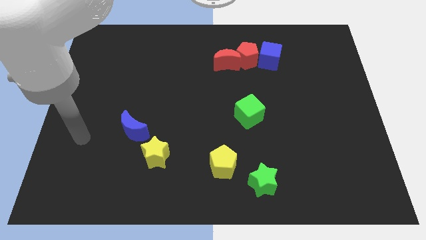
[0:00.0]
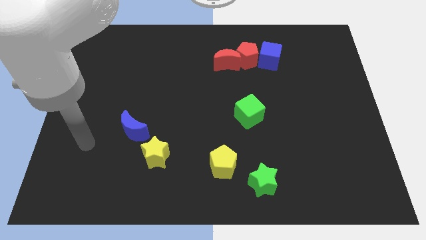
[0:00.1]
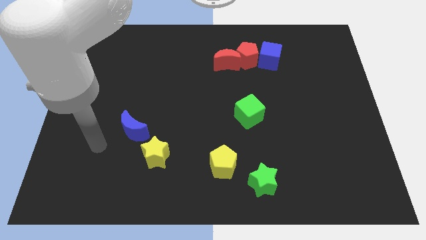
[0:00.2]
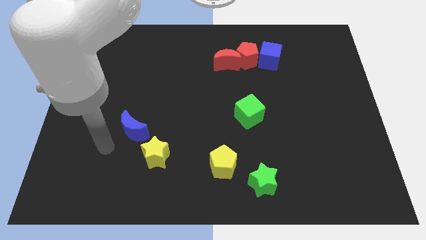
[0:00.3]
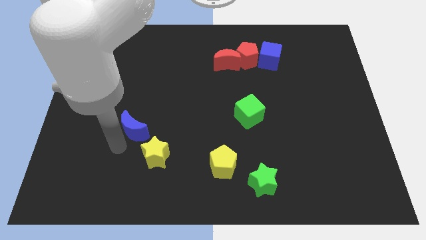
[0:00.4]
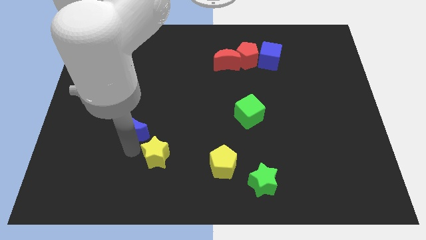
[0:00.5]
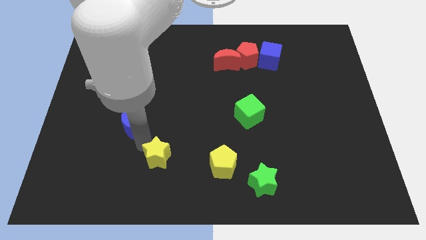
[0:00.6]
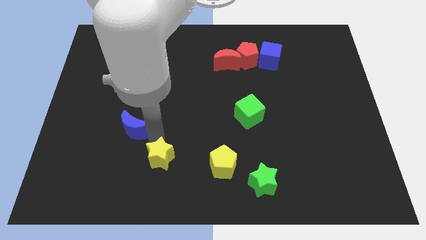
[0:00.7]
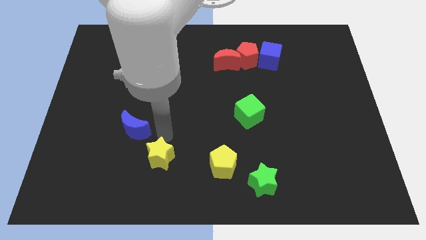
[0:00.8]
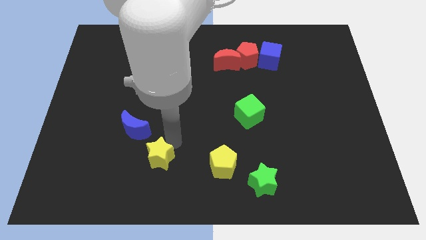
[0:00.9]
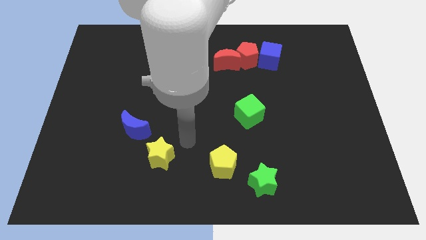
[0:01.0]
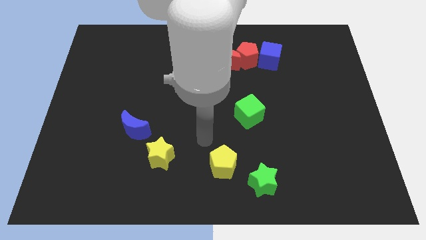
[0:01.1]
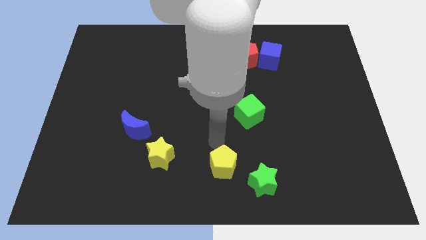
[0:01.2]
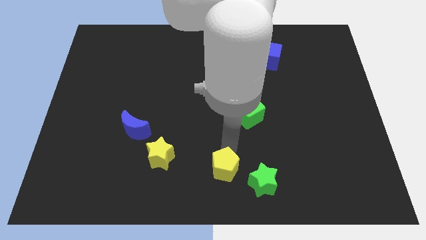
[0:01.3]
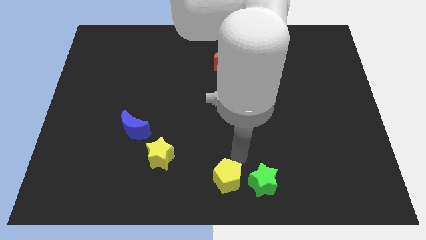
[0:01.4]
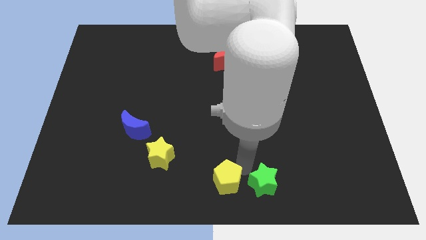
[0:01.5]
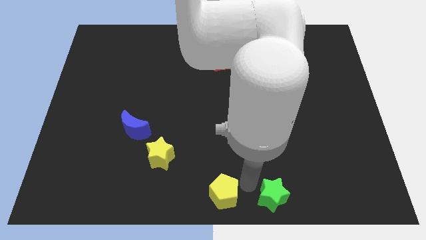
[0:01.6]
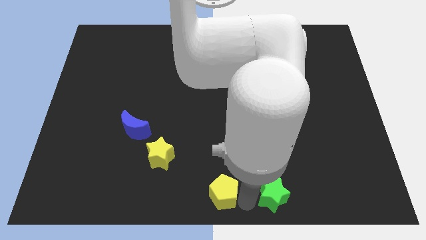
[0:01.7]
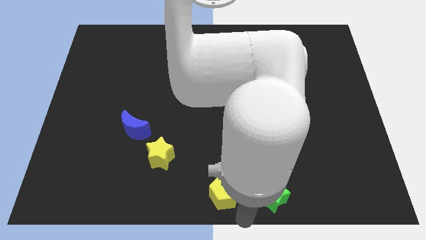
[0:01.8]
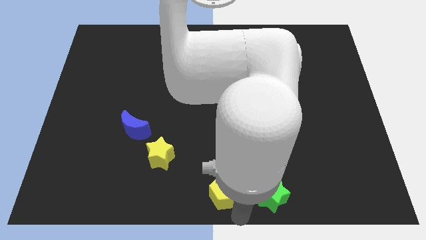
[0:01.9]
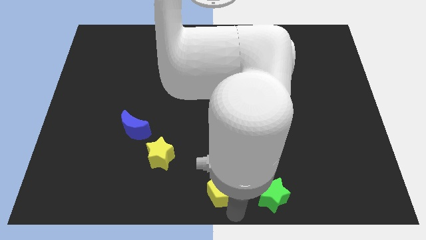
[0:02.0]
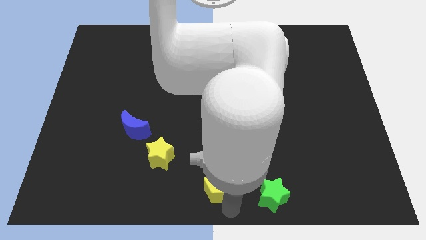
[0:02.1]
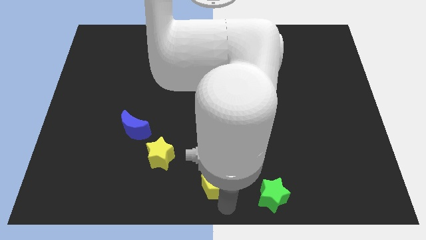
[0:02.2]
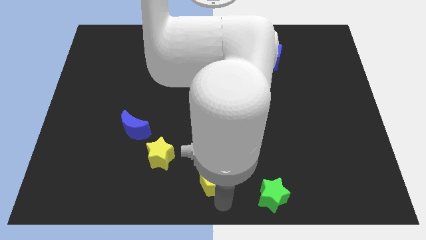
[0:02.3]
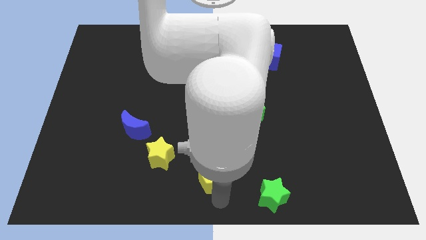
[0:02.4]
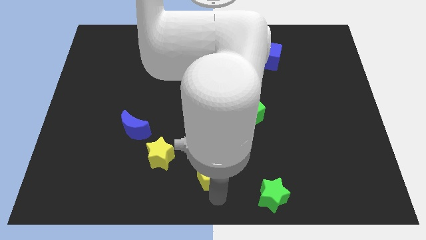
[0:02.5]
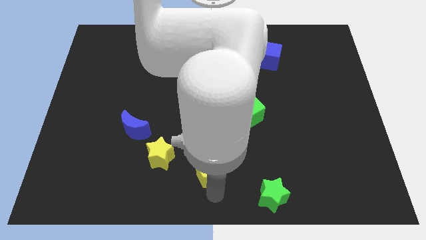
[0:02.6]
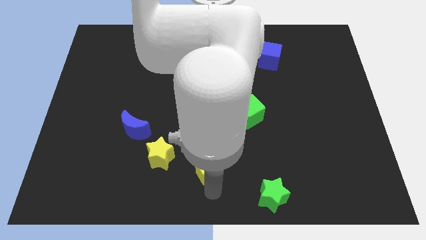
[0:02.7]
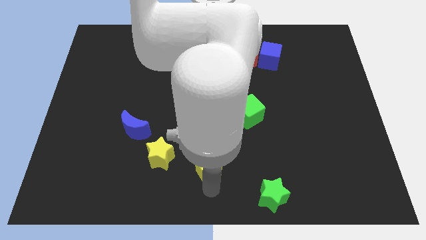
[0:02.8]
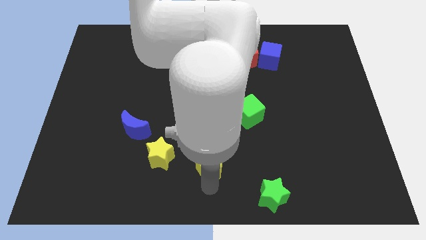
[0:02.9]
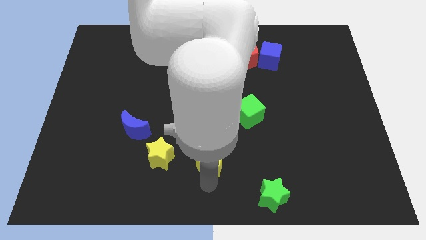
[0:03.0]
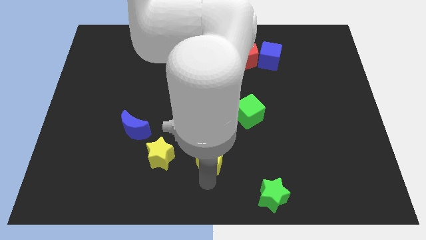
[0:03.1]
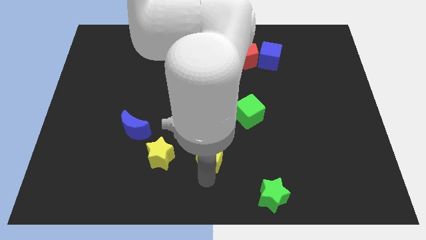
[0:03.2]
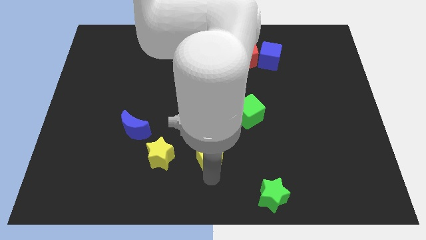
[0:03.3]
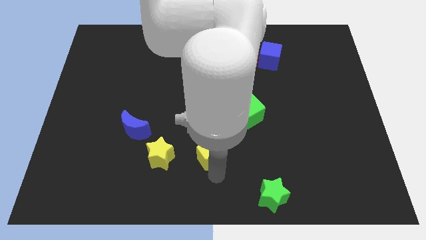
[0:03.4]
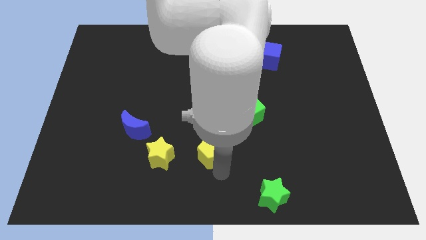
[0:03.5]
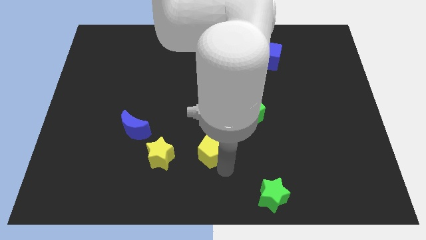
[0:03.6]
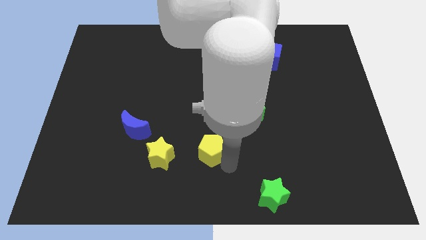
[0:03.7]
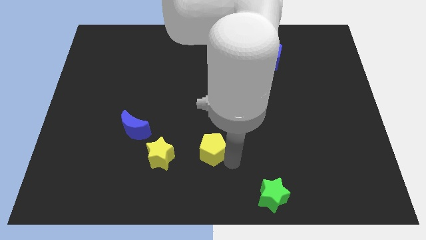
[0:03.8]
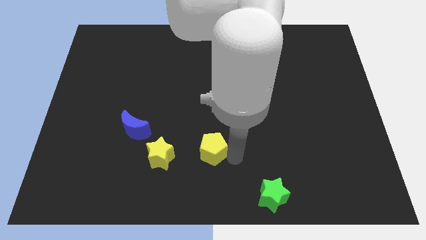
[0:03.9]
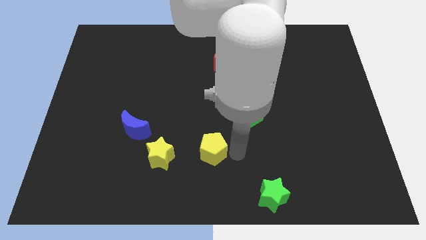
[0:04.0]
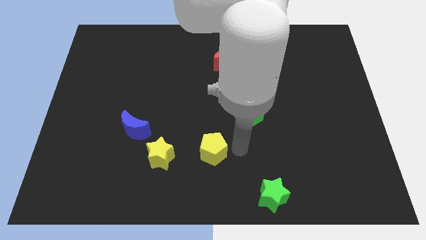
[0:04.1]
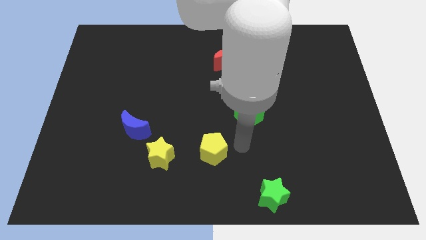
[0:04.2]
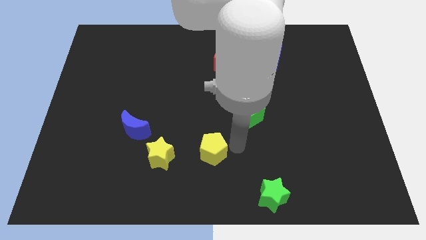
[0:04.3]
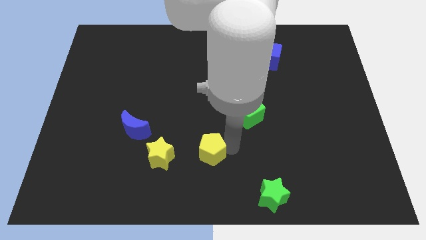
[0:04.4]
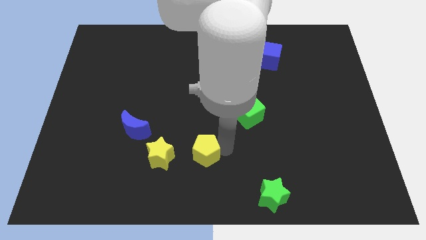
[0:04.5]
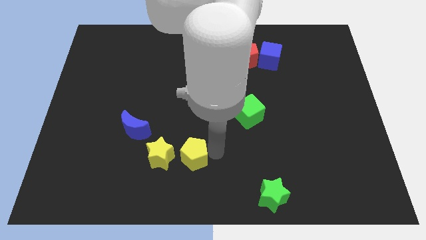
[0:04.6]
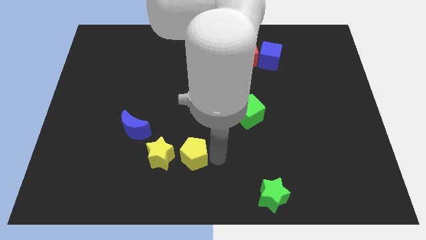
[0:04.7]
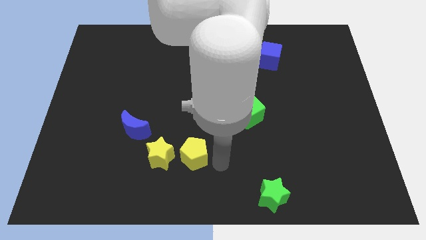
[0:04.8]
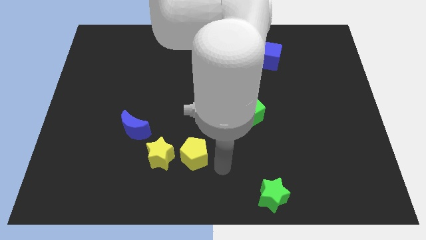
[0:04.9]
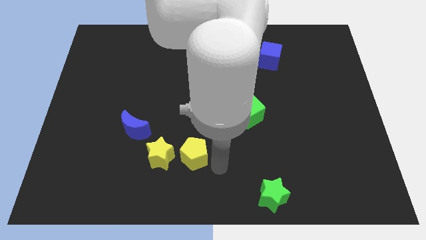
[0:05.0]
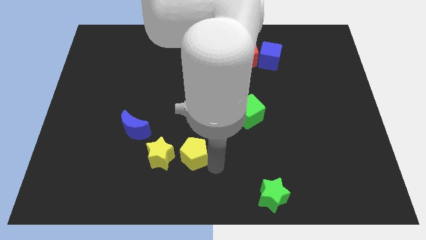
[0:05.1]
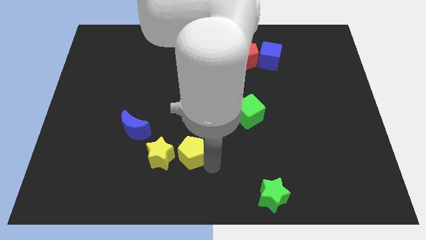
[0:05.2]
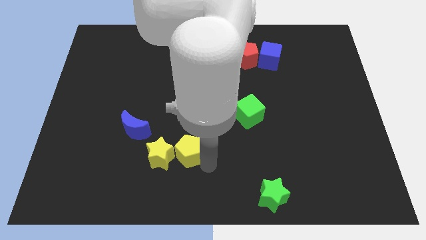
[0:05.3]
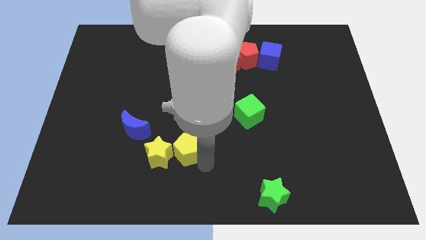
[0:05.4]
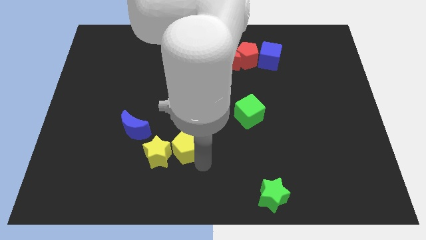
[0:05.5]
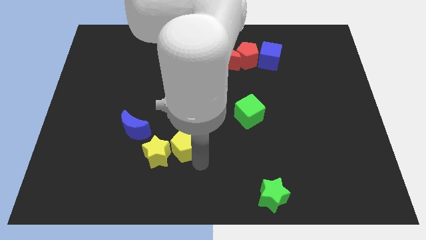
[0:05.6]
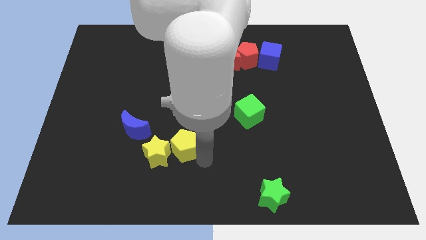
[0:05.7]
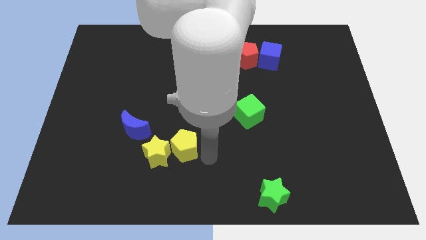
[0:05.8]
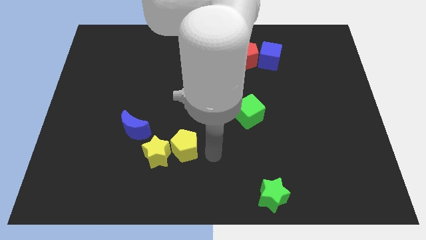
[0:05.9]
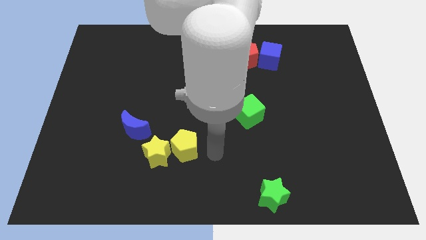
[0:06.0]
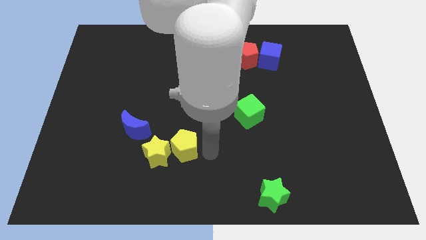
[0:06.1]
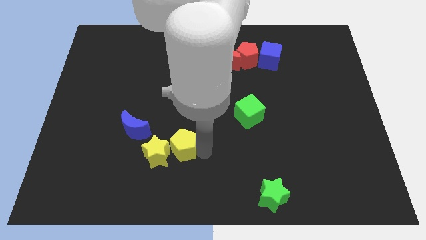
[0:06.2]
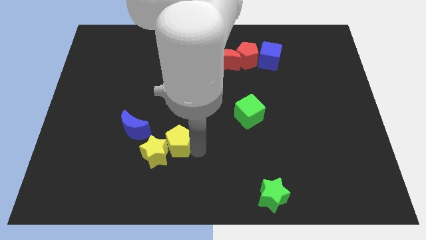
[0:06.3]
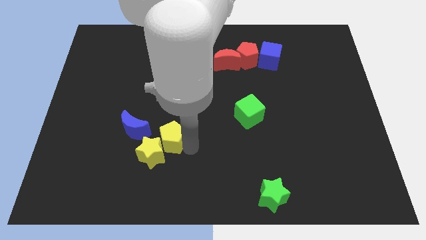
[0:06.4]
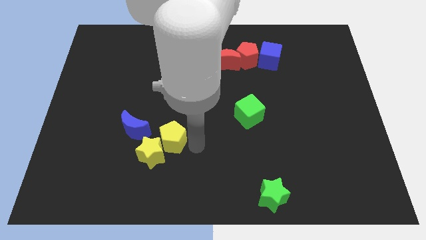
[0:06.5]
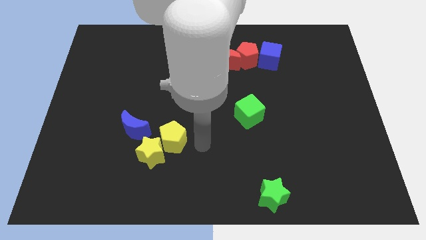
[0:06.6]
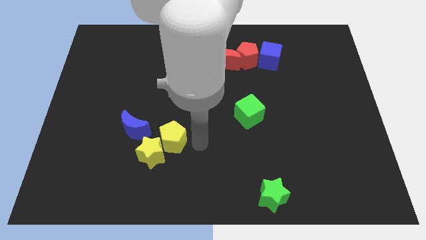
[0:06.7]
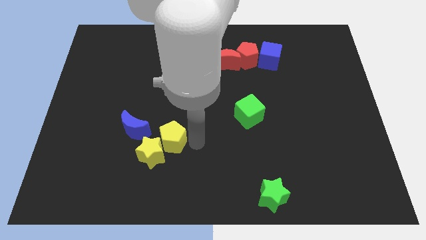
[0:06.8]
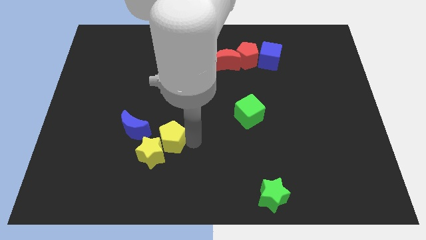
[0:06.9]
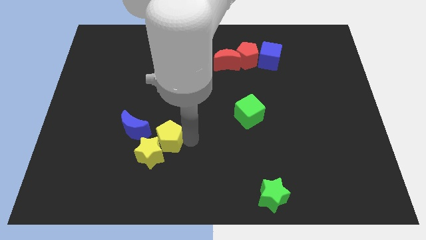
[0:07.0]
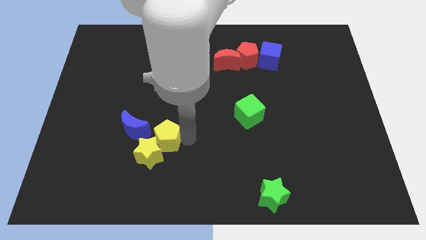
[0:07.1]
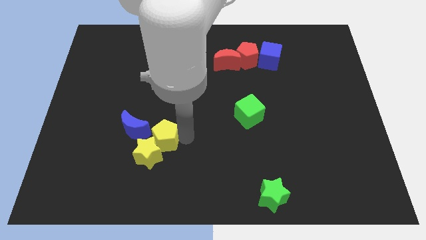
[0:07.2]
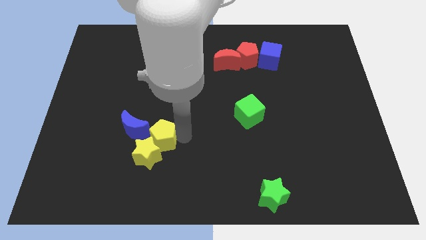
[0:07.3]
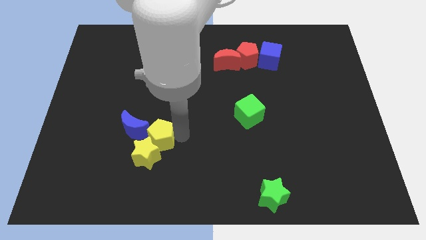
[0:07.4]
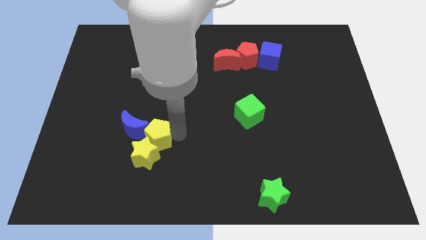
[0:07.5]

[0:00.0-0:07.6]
move the yellow pentagon to the blue moon
